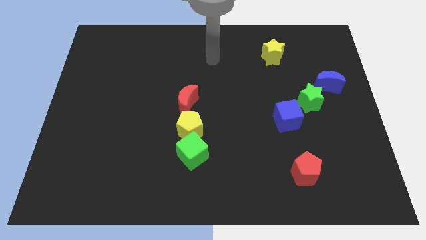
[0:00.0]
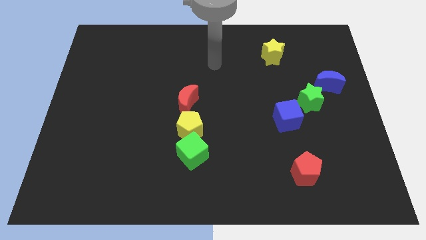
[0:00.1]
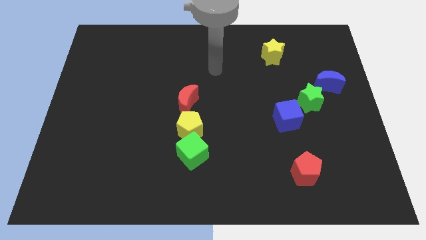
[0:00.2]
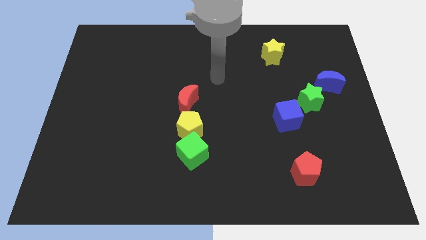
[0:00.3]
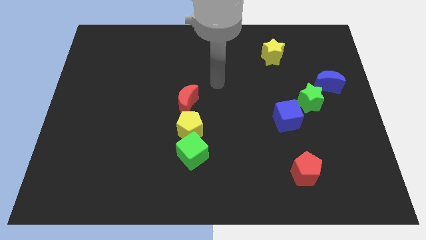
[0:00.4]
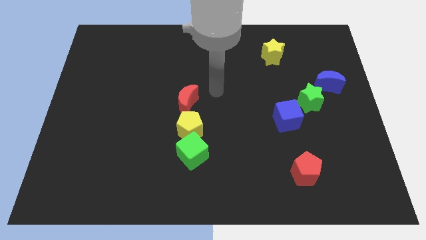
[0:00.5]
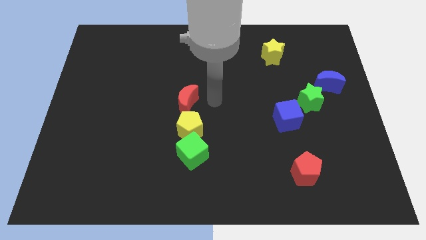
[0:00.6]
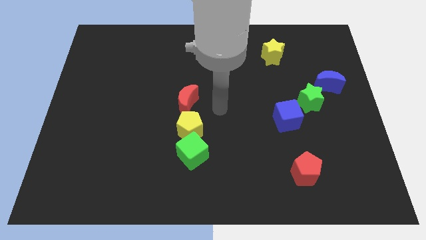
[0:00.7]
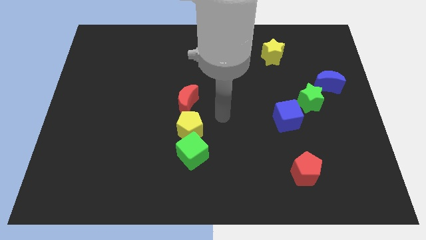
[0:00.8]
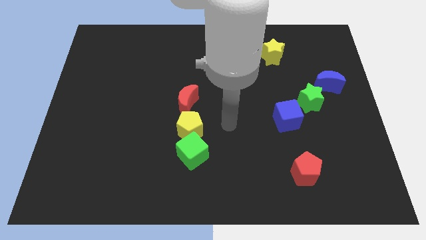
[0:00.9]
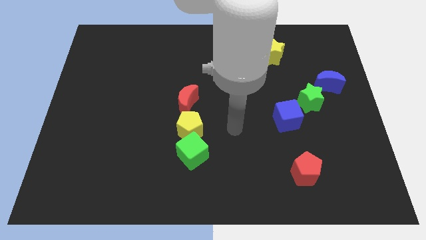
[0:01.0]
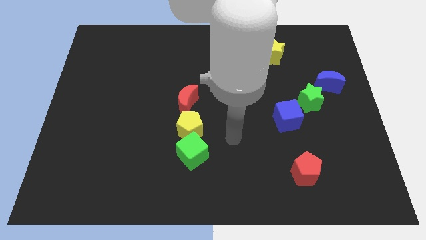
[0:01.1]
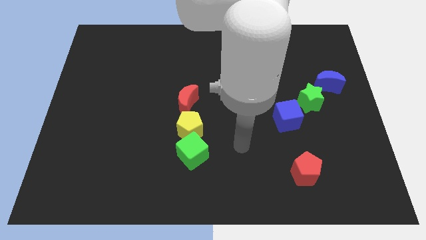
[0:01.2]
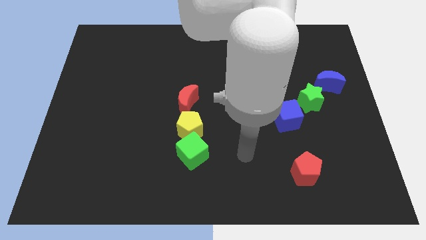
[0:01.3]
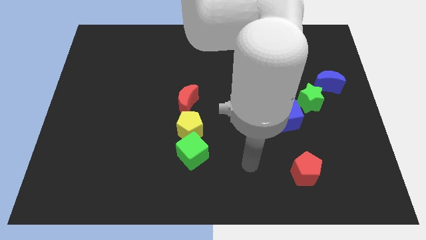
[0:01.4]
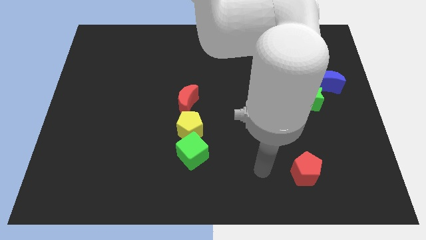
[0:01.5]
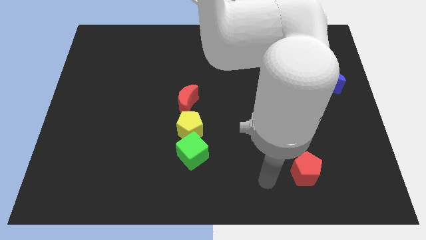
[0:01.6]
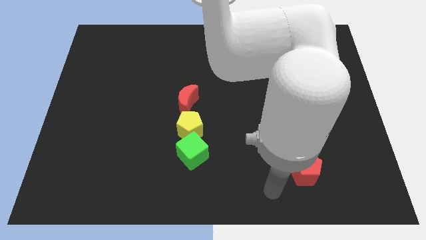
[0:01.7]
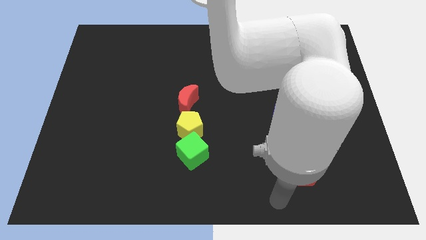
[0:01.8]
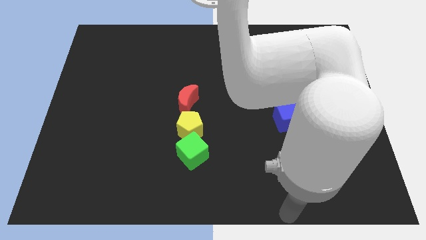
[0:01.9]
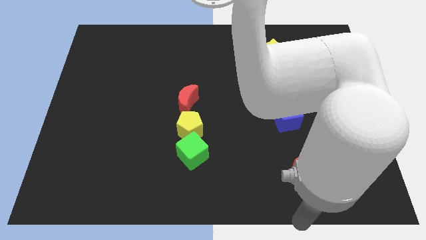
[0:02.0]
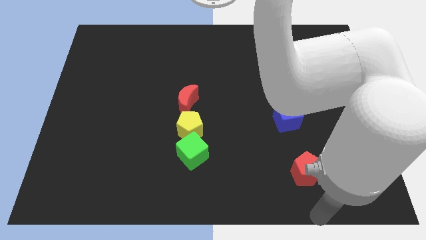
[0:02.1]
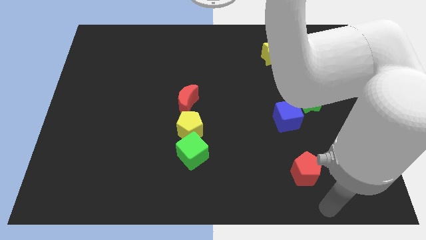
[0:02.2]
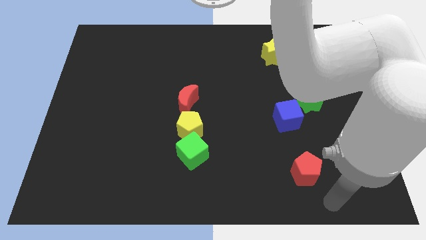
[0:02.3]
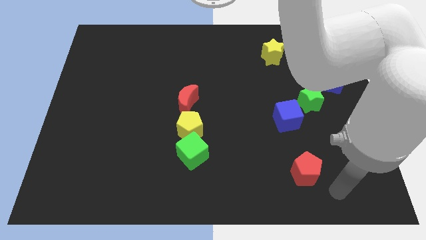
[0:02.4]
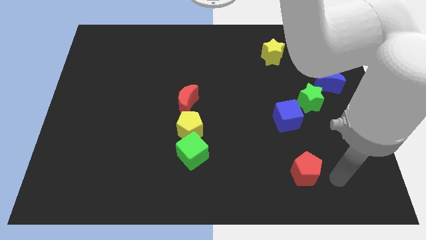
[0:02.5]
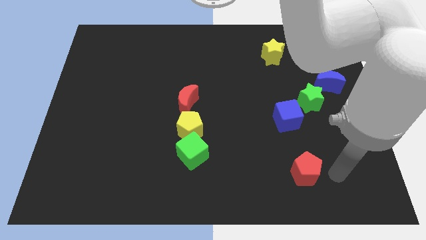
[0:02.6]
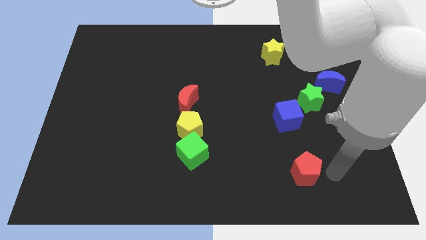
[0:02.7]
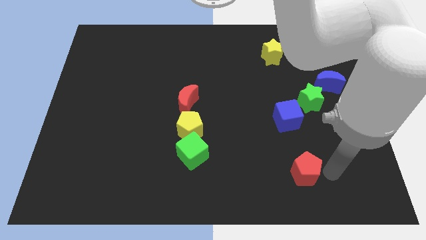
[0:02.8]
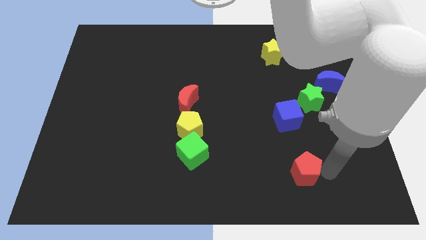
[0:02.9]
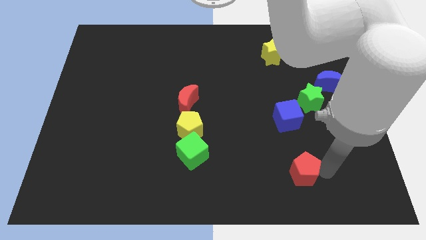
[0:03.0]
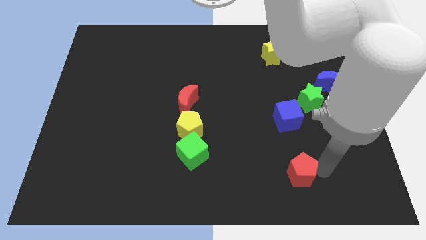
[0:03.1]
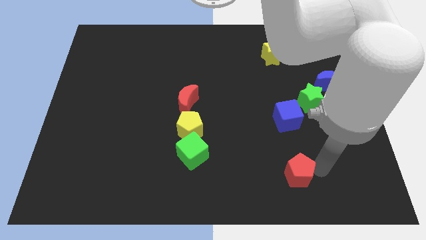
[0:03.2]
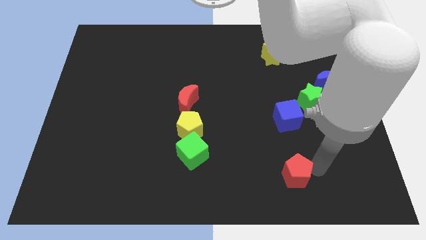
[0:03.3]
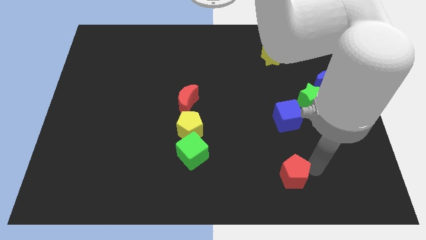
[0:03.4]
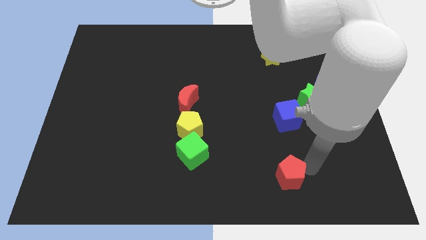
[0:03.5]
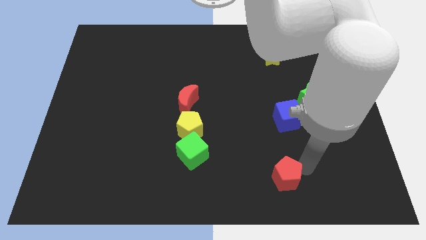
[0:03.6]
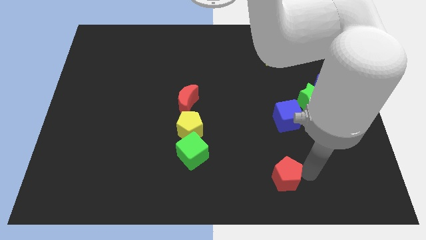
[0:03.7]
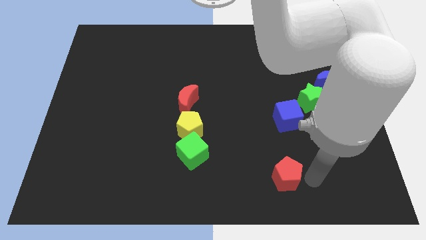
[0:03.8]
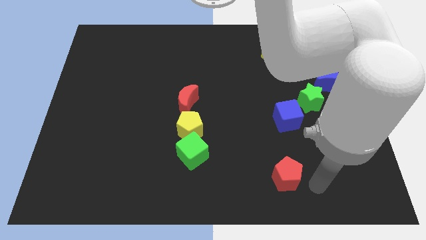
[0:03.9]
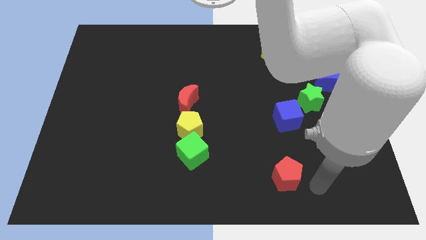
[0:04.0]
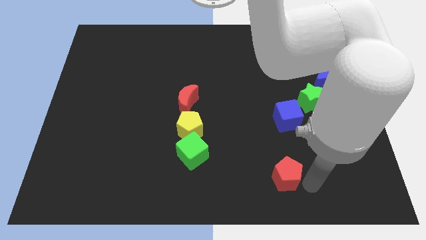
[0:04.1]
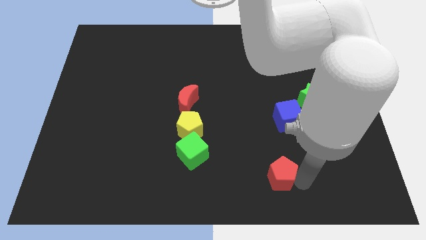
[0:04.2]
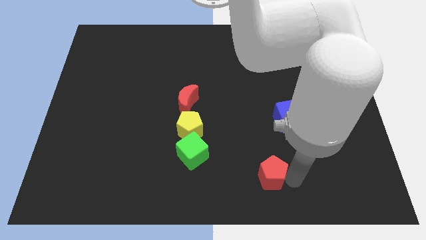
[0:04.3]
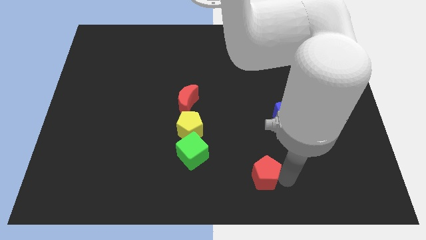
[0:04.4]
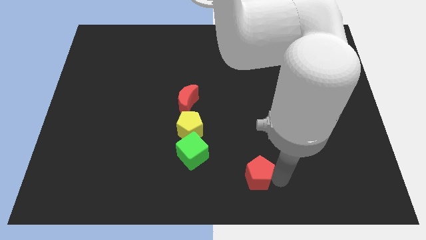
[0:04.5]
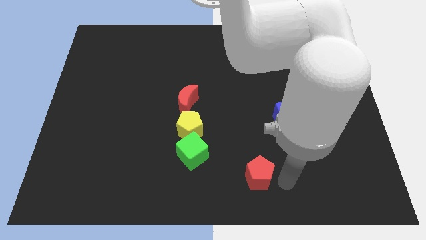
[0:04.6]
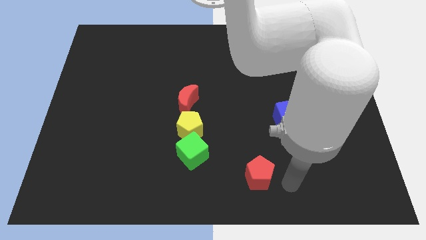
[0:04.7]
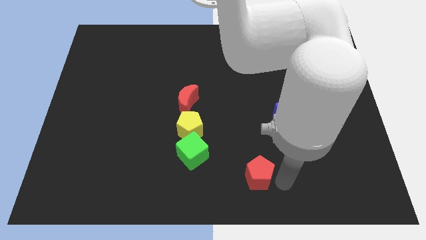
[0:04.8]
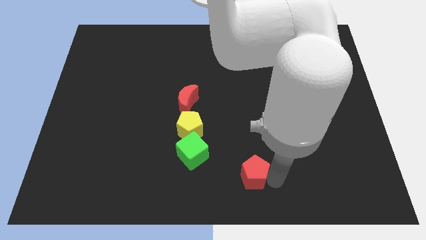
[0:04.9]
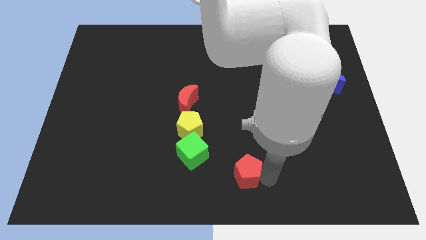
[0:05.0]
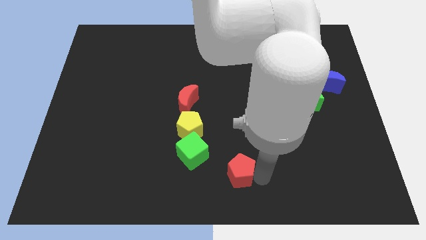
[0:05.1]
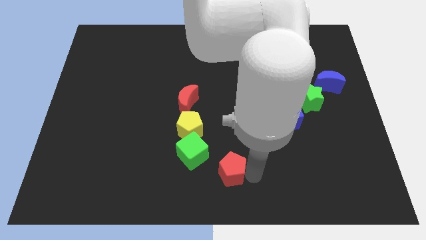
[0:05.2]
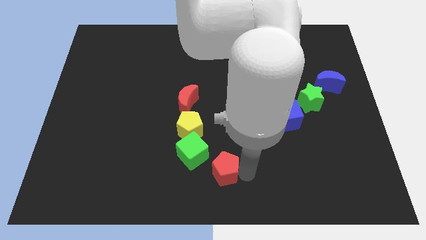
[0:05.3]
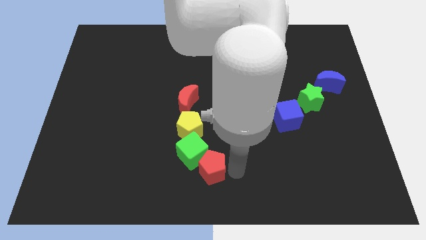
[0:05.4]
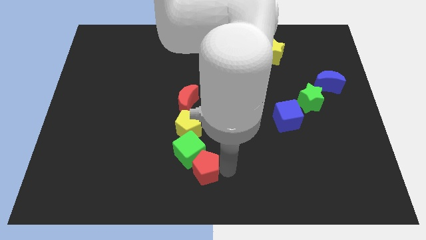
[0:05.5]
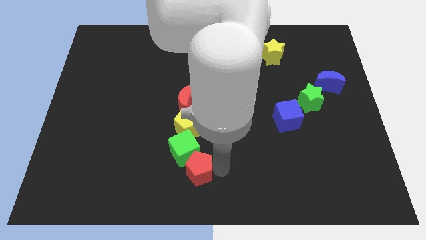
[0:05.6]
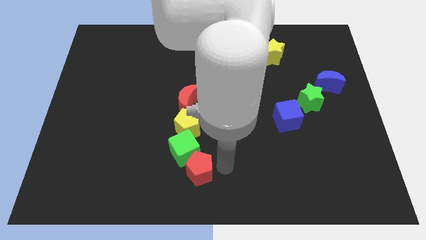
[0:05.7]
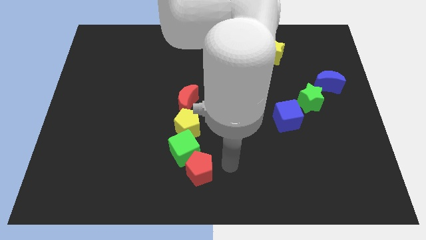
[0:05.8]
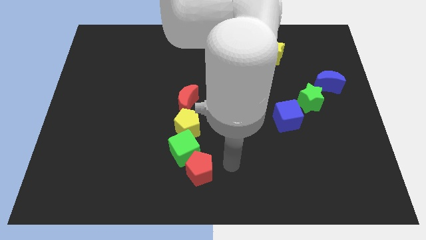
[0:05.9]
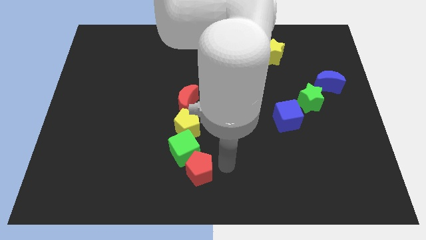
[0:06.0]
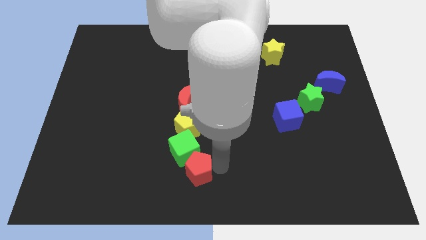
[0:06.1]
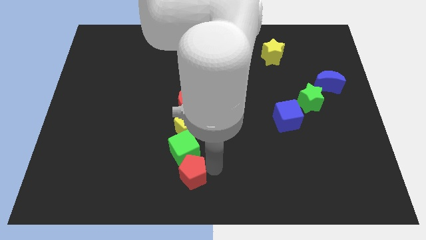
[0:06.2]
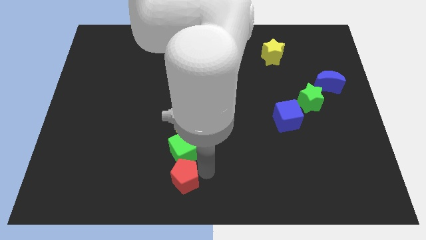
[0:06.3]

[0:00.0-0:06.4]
put the red pentagon diagonally down and to the left of the green cube
